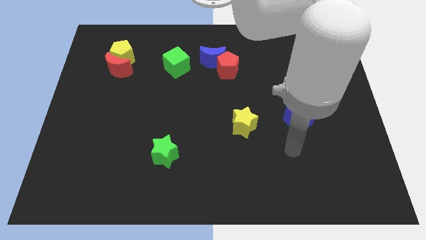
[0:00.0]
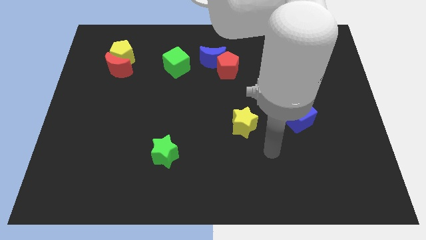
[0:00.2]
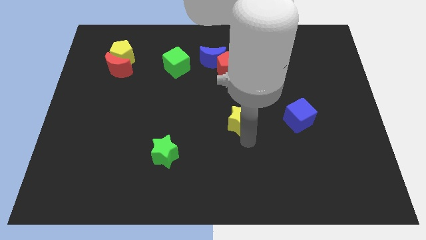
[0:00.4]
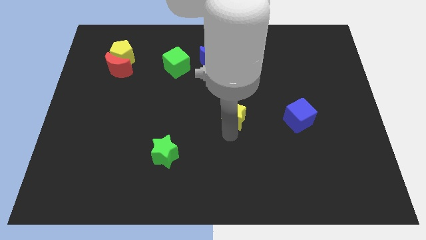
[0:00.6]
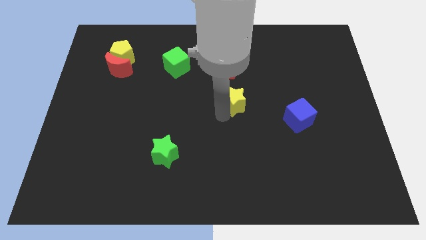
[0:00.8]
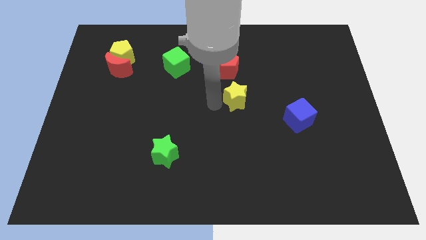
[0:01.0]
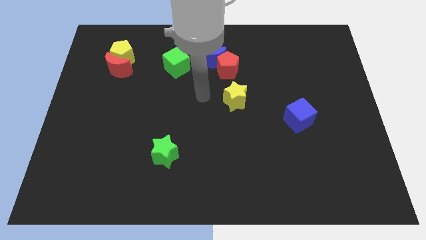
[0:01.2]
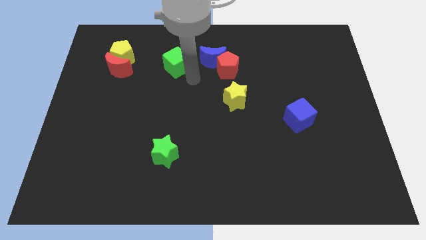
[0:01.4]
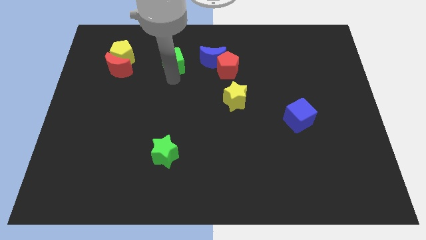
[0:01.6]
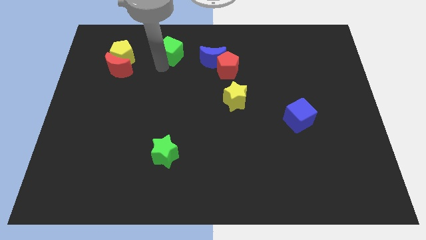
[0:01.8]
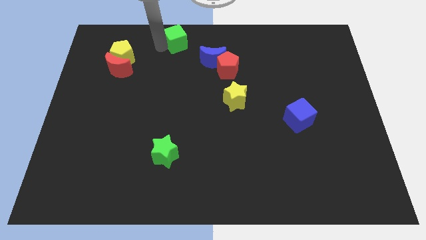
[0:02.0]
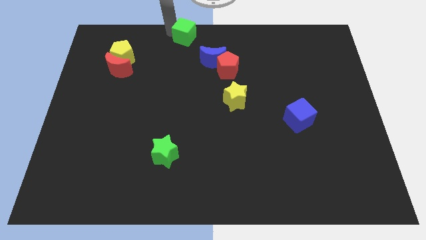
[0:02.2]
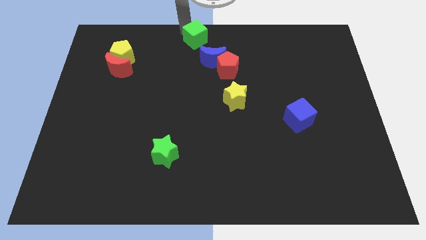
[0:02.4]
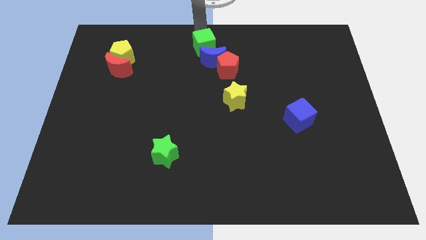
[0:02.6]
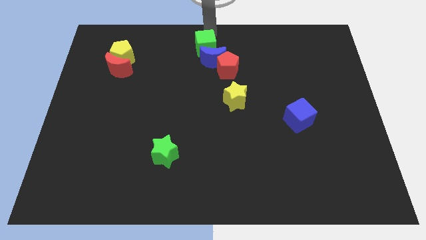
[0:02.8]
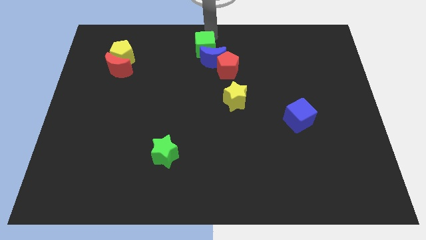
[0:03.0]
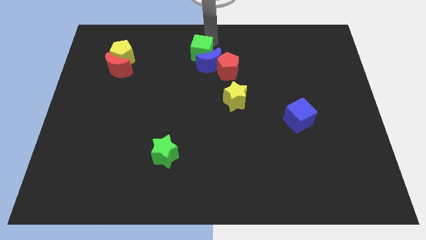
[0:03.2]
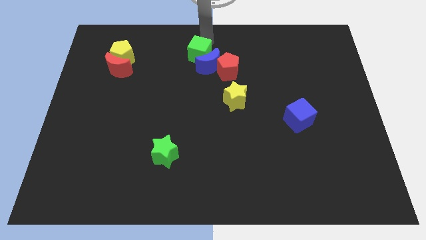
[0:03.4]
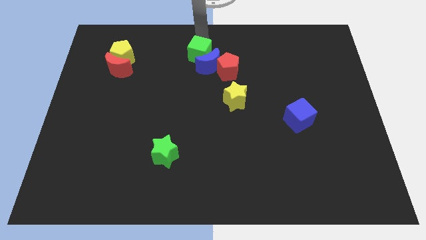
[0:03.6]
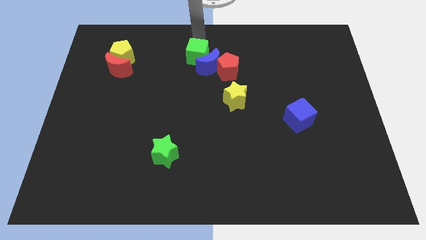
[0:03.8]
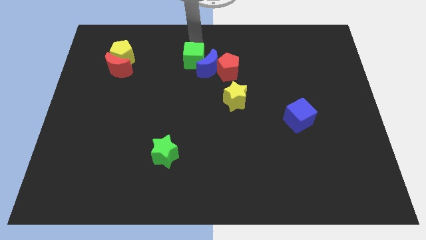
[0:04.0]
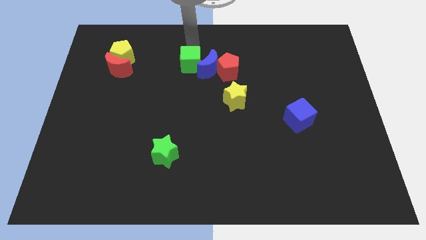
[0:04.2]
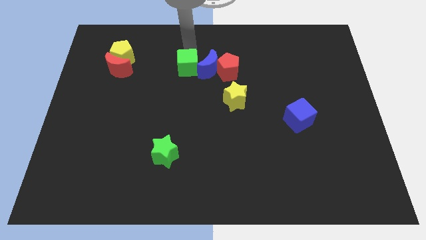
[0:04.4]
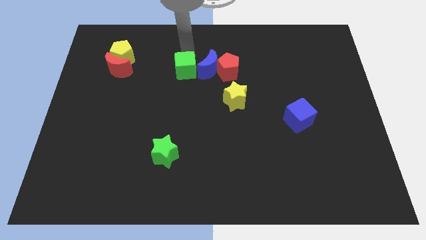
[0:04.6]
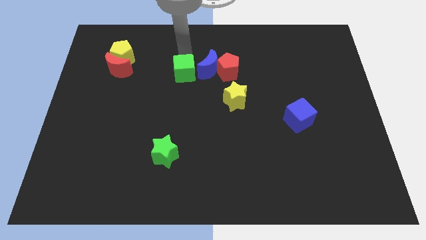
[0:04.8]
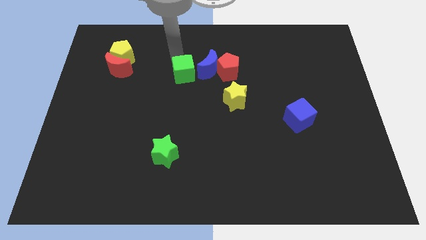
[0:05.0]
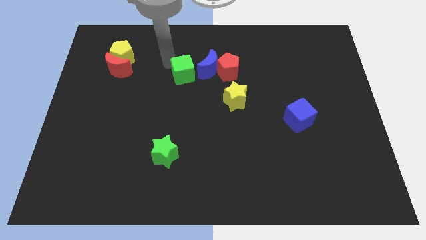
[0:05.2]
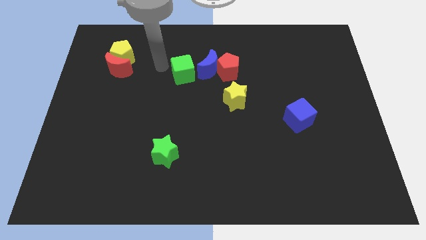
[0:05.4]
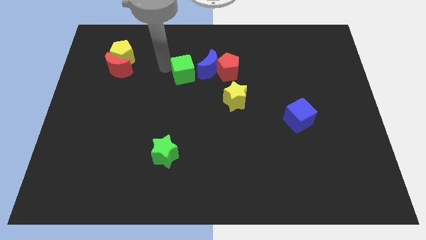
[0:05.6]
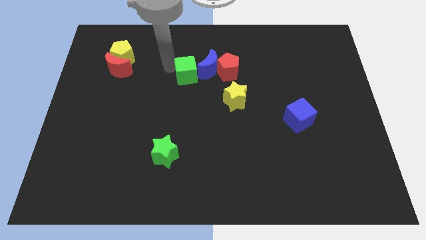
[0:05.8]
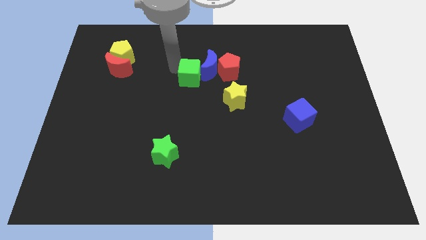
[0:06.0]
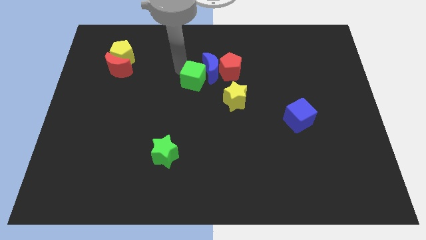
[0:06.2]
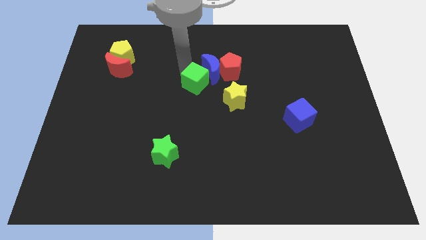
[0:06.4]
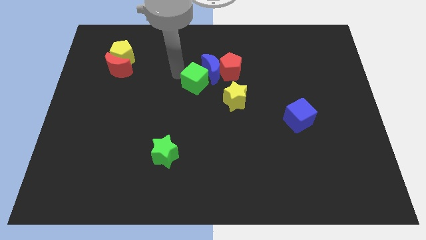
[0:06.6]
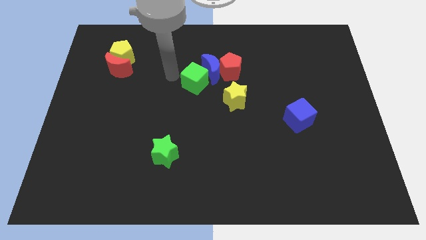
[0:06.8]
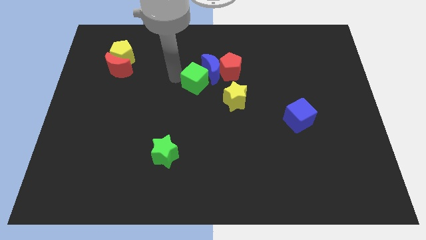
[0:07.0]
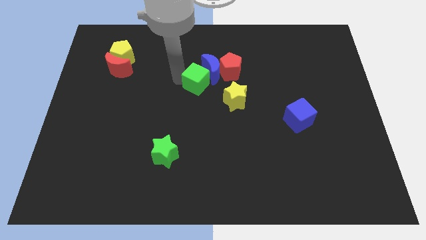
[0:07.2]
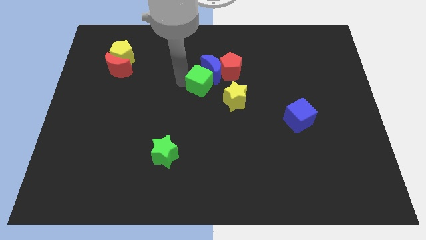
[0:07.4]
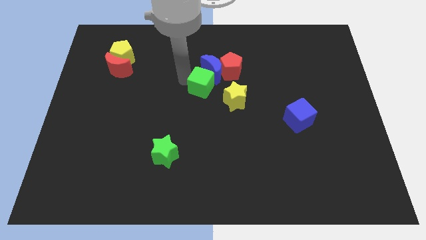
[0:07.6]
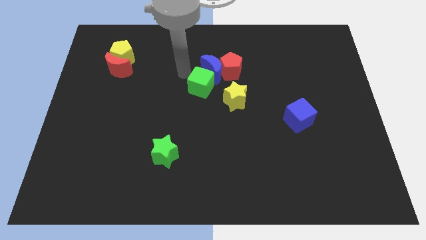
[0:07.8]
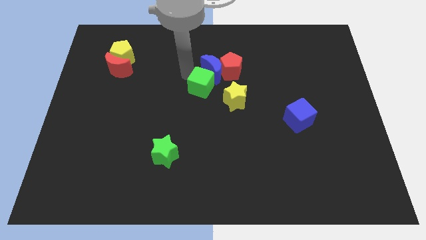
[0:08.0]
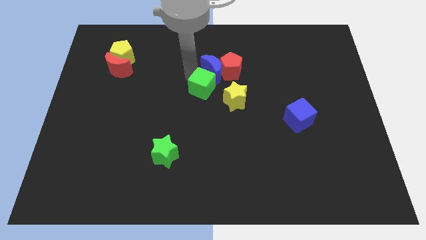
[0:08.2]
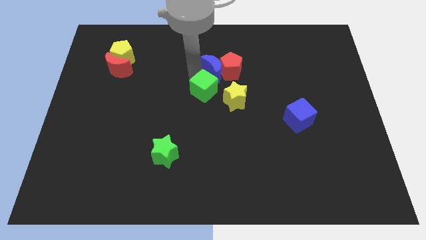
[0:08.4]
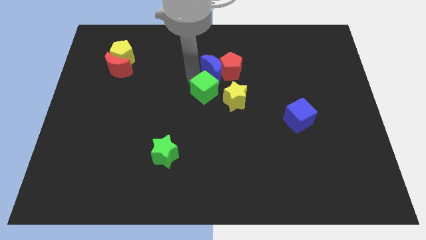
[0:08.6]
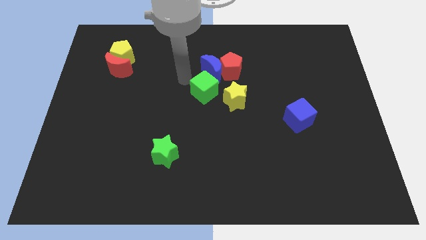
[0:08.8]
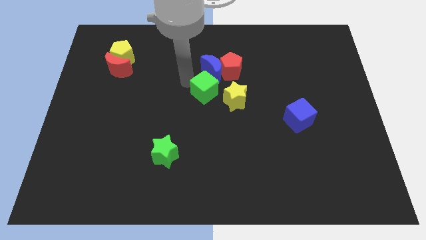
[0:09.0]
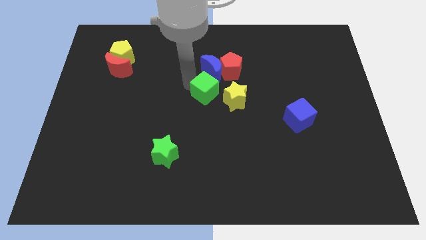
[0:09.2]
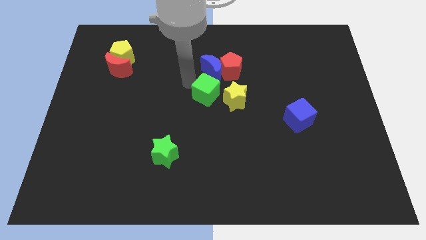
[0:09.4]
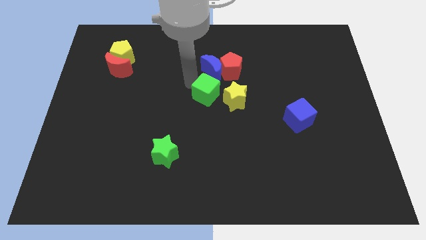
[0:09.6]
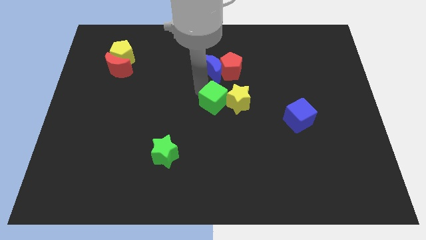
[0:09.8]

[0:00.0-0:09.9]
push the green cube next to the yellow star

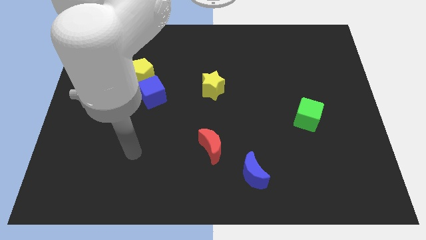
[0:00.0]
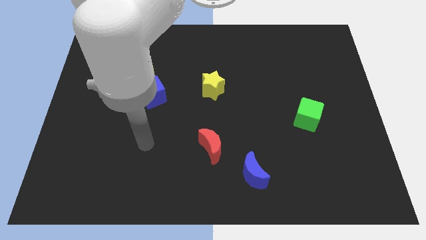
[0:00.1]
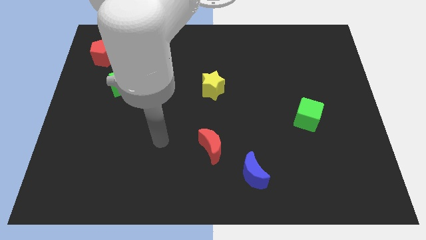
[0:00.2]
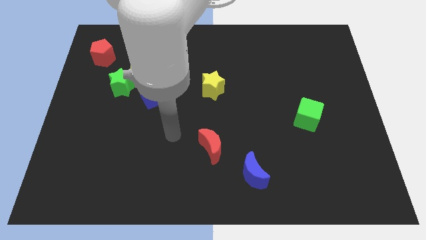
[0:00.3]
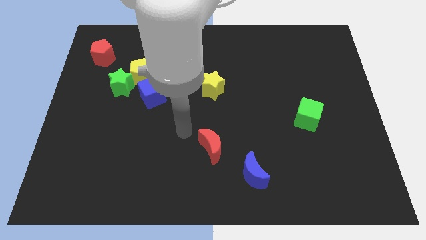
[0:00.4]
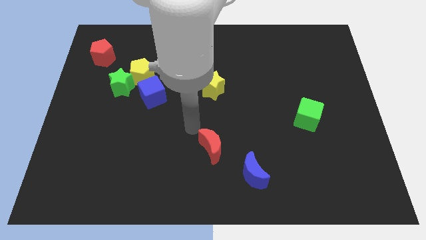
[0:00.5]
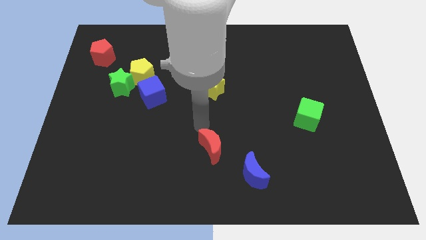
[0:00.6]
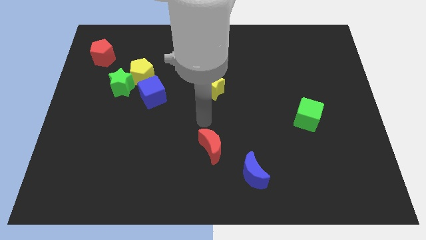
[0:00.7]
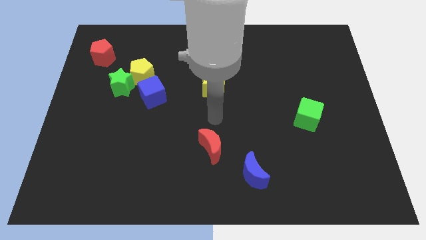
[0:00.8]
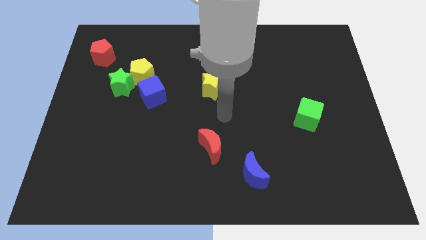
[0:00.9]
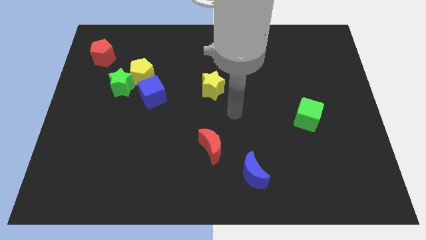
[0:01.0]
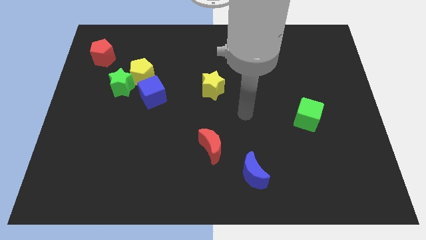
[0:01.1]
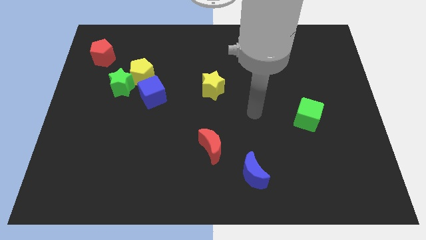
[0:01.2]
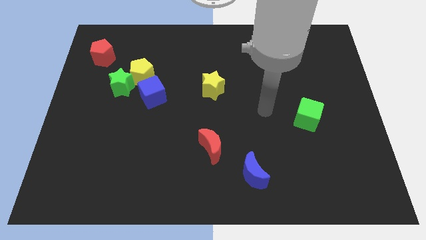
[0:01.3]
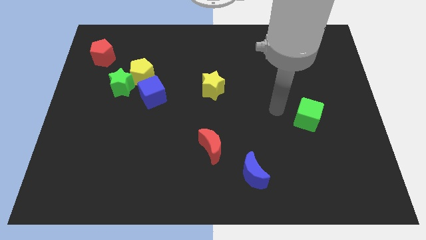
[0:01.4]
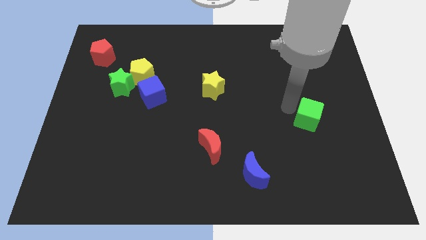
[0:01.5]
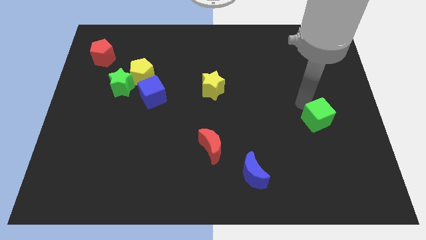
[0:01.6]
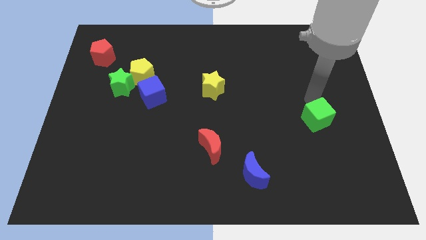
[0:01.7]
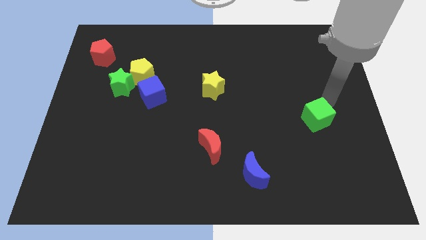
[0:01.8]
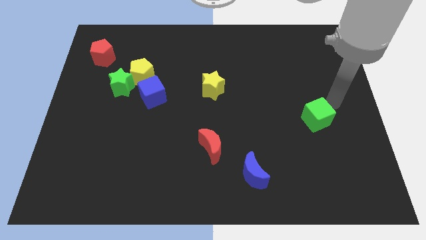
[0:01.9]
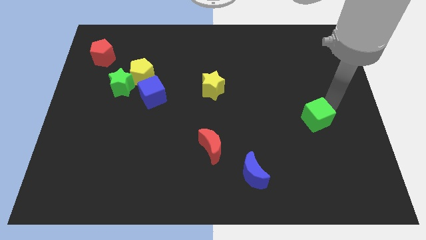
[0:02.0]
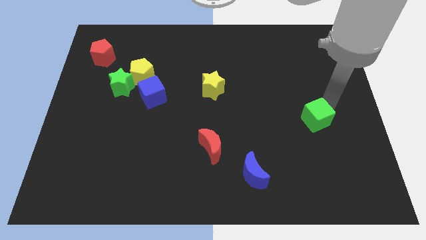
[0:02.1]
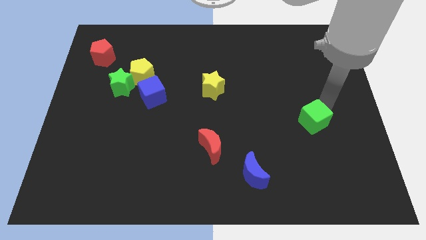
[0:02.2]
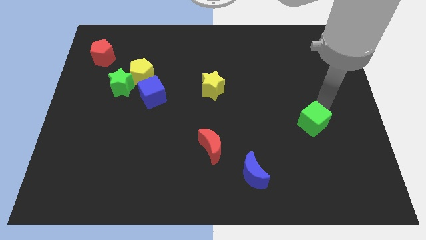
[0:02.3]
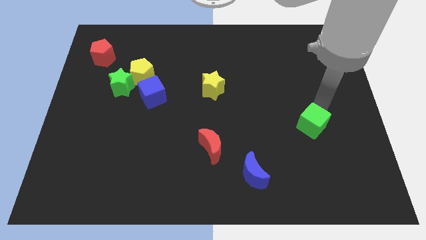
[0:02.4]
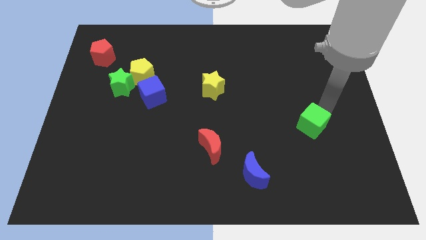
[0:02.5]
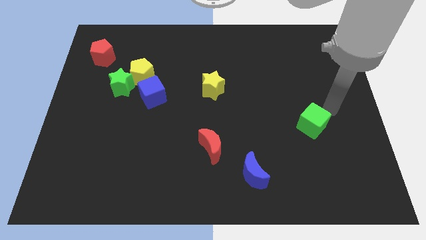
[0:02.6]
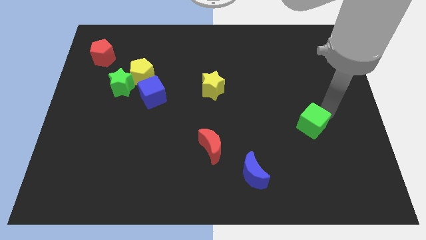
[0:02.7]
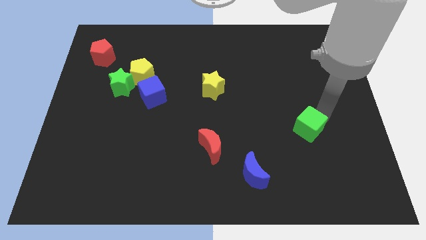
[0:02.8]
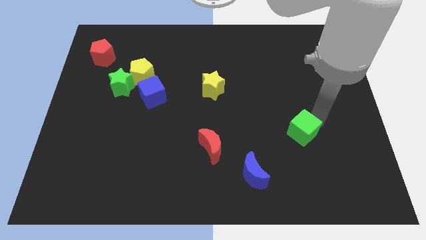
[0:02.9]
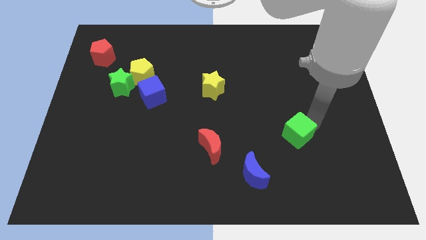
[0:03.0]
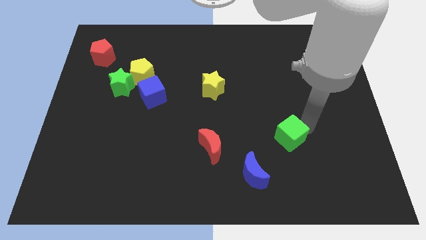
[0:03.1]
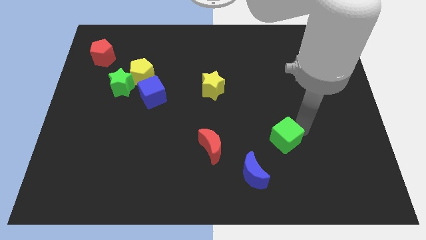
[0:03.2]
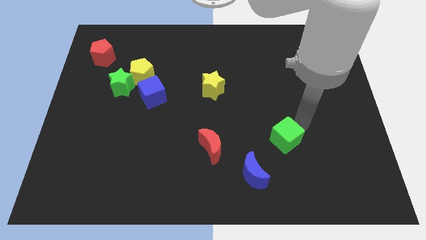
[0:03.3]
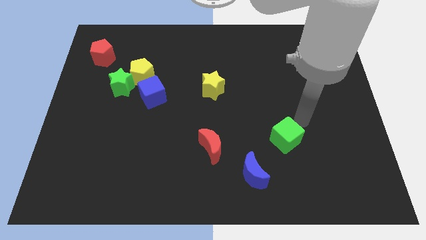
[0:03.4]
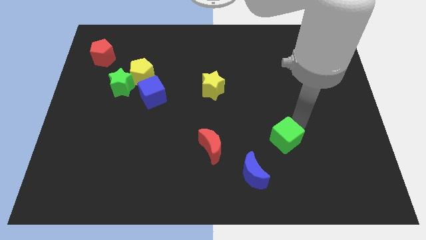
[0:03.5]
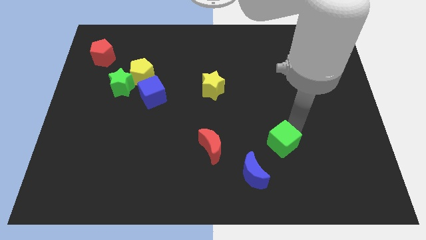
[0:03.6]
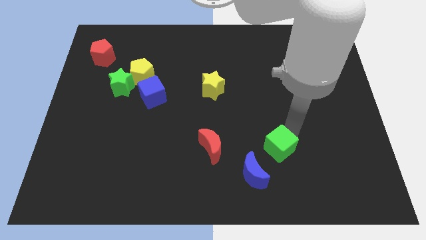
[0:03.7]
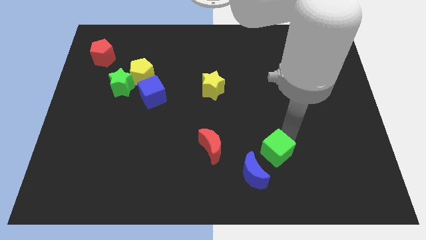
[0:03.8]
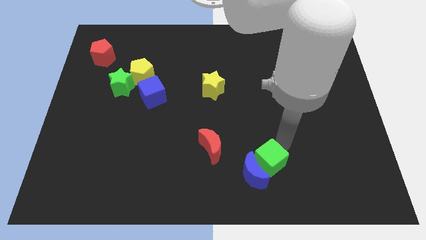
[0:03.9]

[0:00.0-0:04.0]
move the green cube to the blue moon
